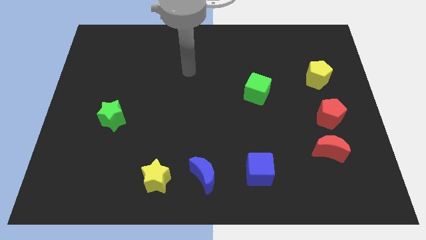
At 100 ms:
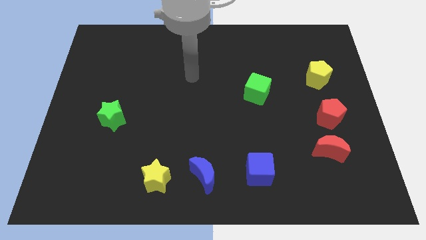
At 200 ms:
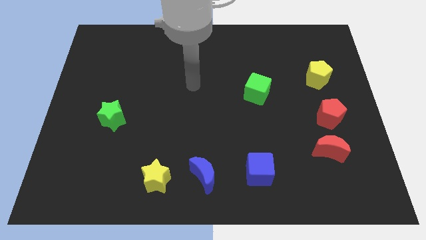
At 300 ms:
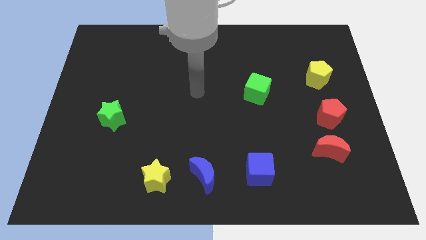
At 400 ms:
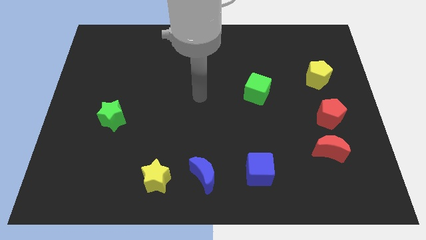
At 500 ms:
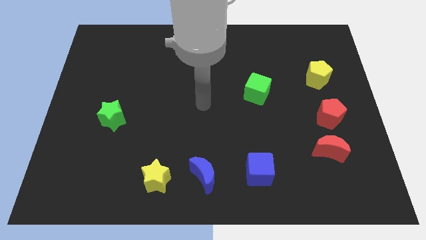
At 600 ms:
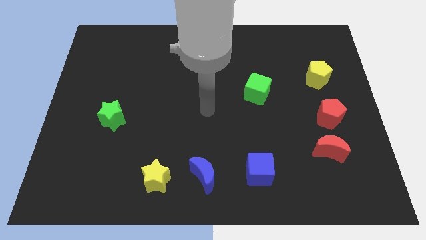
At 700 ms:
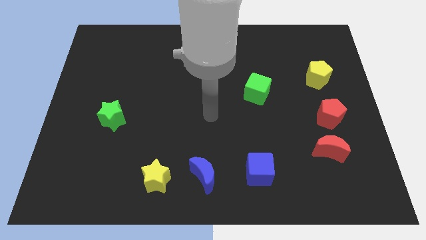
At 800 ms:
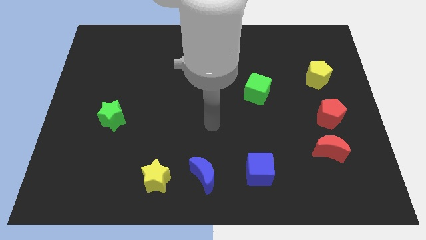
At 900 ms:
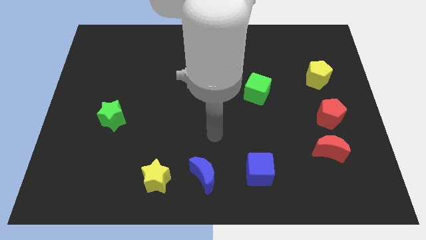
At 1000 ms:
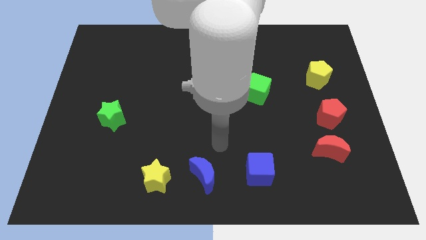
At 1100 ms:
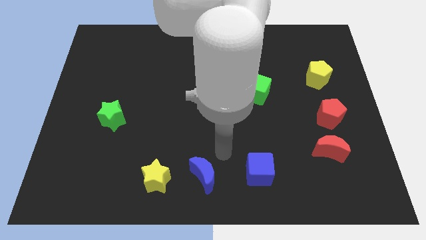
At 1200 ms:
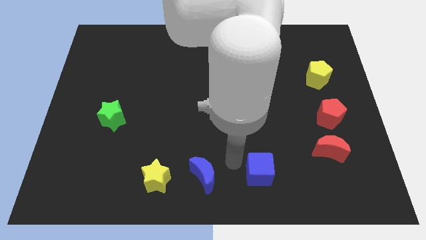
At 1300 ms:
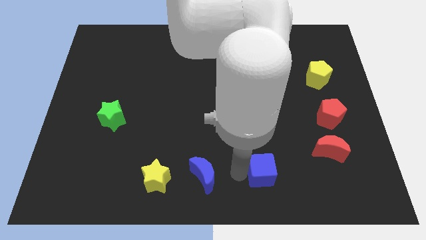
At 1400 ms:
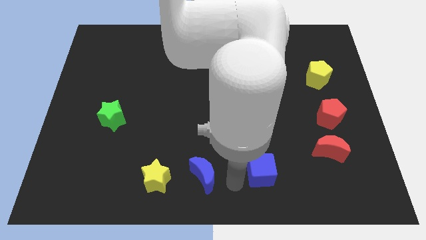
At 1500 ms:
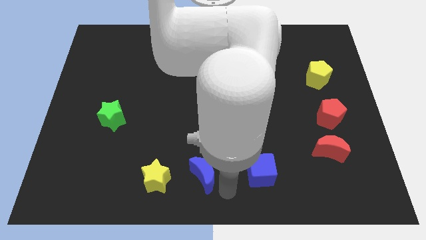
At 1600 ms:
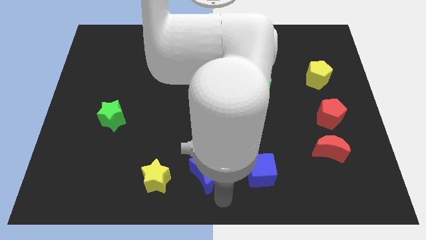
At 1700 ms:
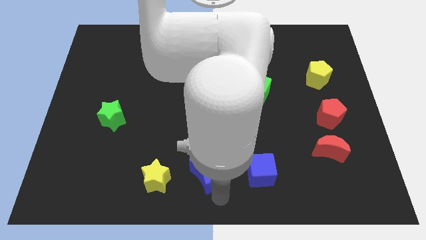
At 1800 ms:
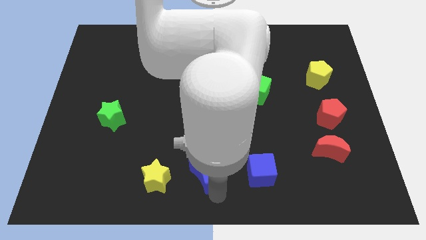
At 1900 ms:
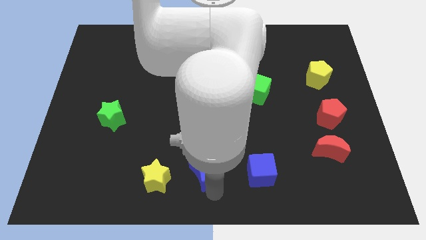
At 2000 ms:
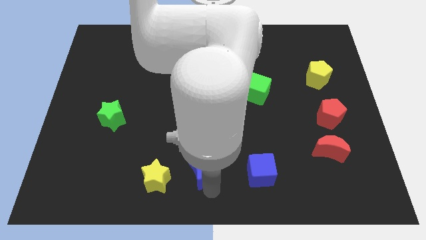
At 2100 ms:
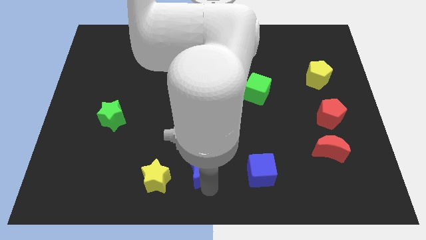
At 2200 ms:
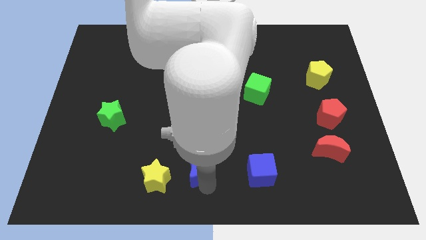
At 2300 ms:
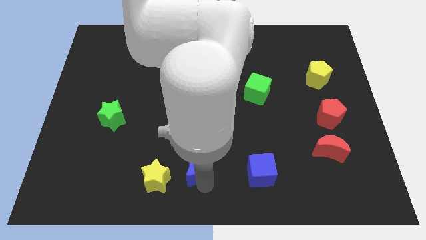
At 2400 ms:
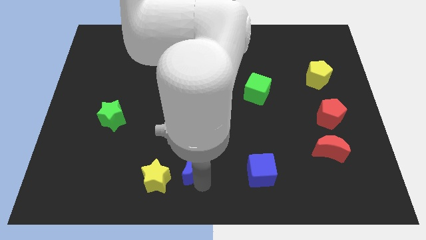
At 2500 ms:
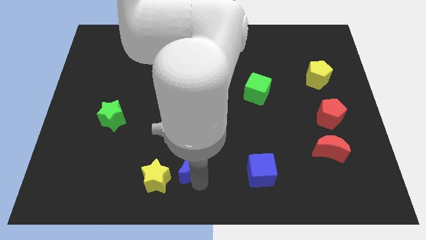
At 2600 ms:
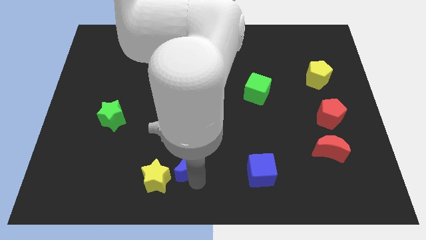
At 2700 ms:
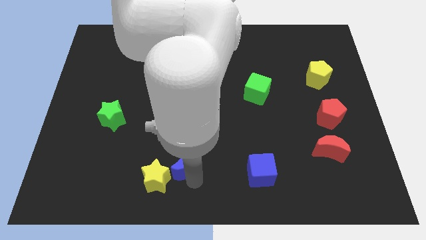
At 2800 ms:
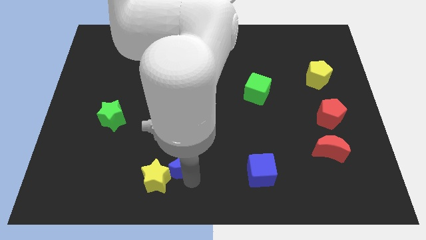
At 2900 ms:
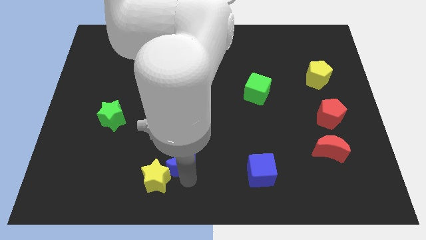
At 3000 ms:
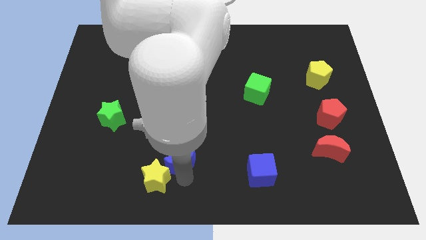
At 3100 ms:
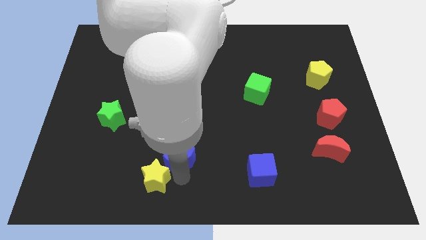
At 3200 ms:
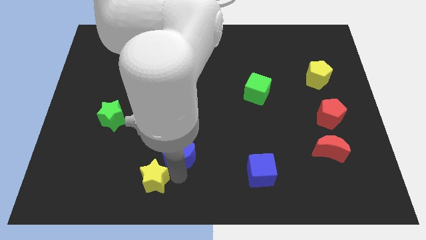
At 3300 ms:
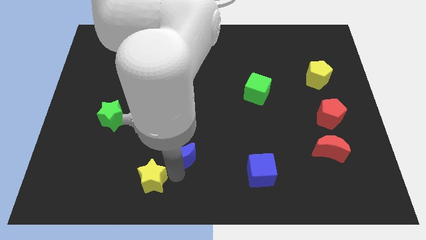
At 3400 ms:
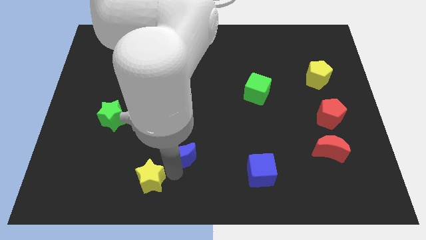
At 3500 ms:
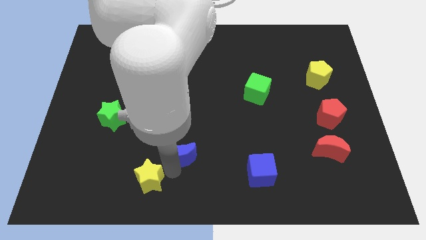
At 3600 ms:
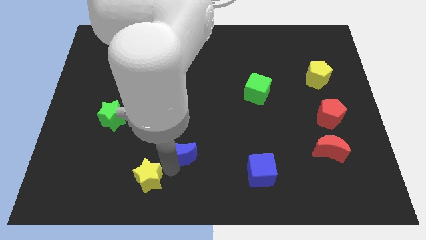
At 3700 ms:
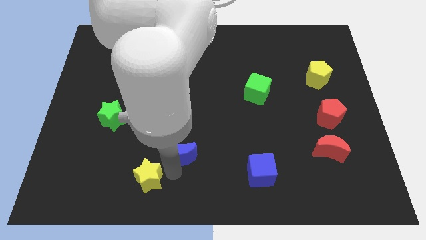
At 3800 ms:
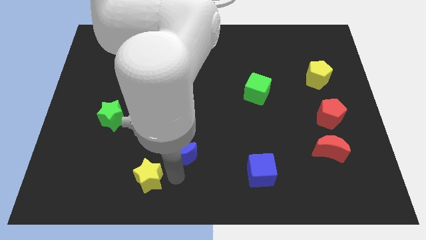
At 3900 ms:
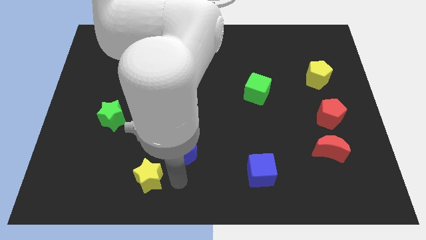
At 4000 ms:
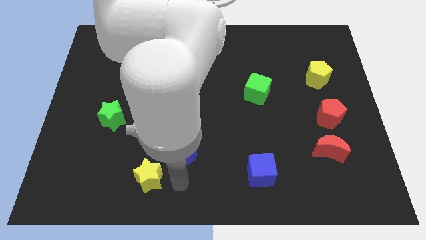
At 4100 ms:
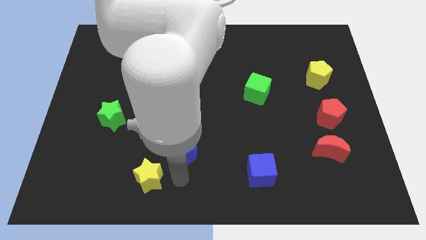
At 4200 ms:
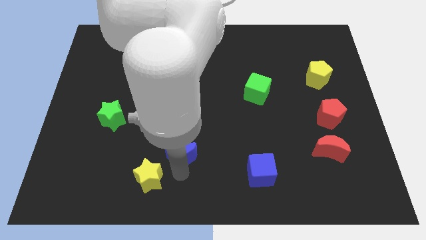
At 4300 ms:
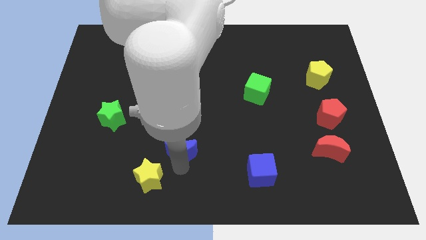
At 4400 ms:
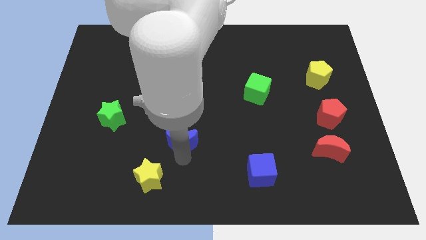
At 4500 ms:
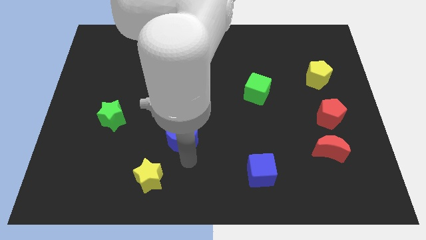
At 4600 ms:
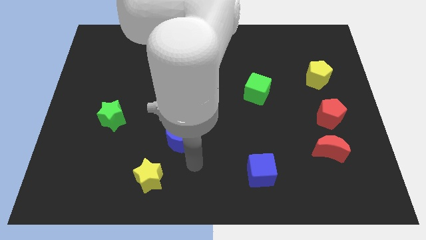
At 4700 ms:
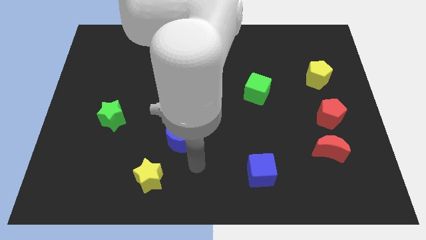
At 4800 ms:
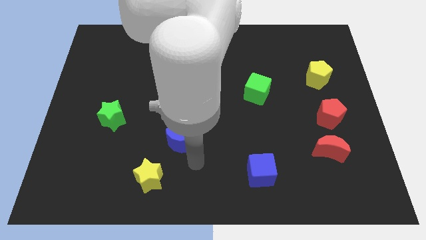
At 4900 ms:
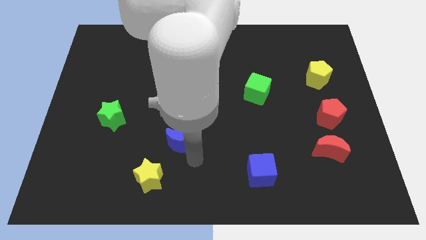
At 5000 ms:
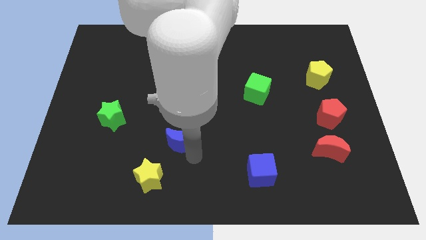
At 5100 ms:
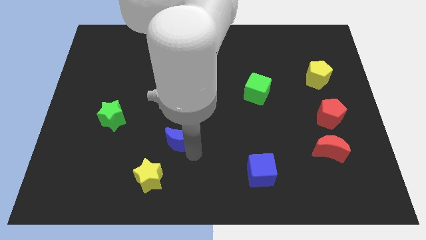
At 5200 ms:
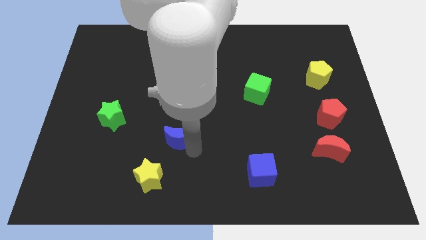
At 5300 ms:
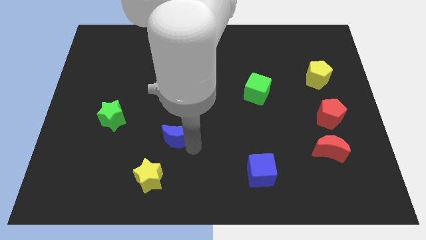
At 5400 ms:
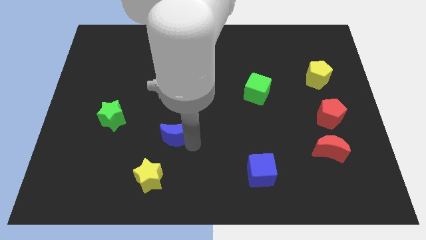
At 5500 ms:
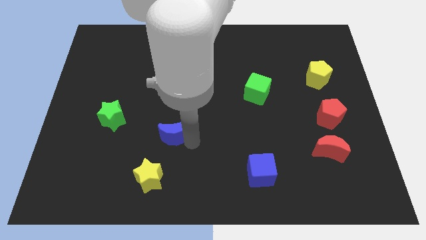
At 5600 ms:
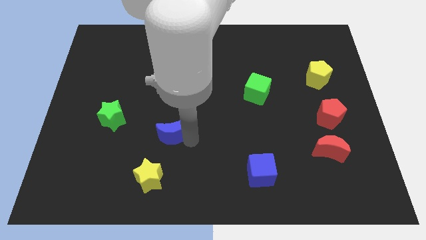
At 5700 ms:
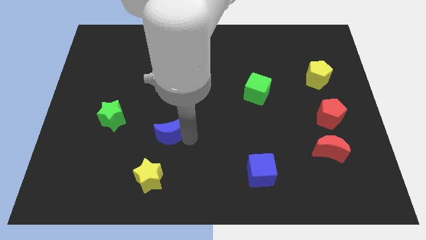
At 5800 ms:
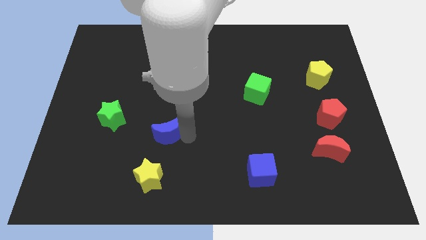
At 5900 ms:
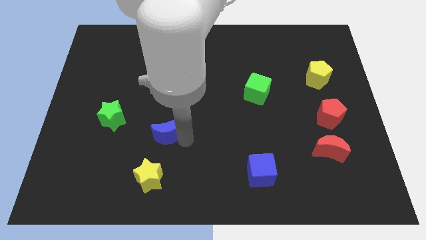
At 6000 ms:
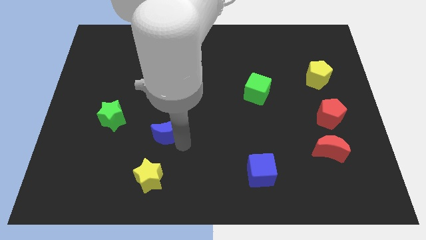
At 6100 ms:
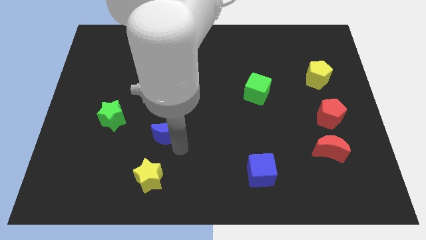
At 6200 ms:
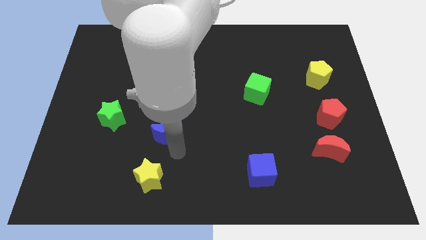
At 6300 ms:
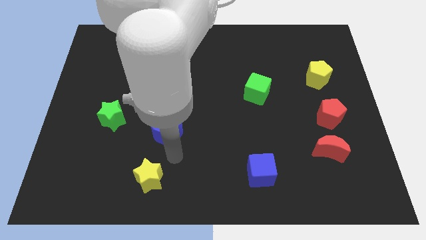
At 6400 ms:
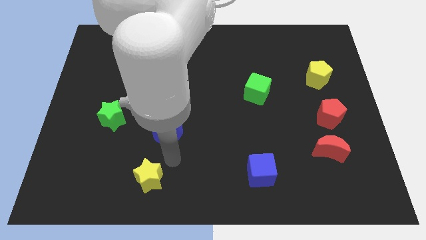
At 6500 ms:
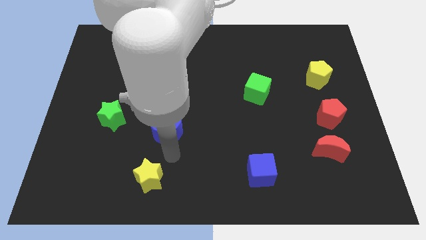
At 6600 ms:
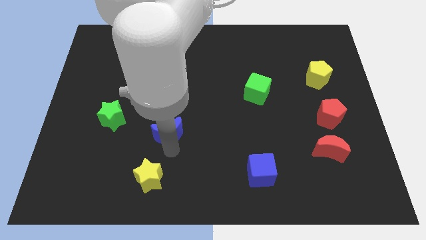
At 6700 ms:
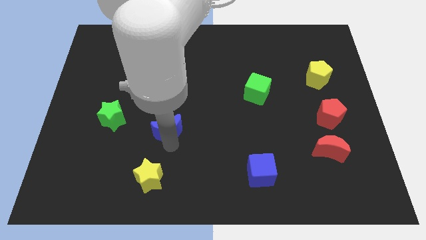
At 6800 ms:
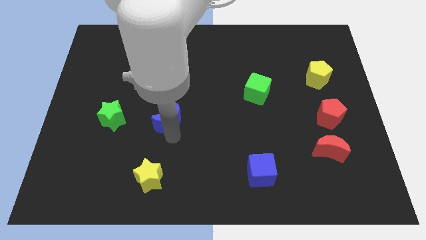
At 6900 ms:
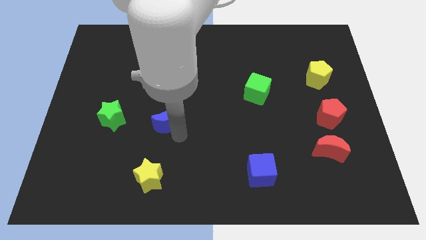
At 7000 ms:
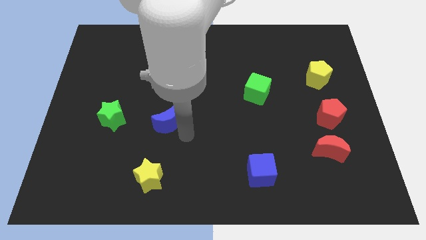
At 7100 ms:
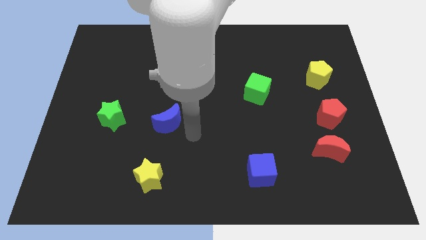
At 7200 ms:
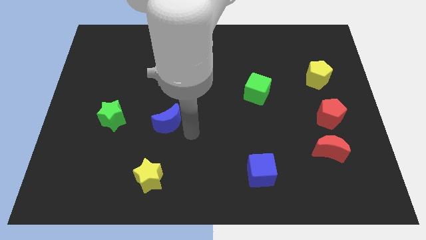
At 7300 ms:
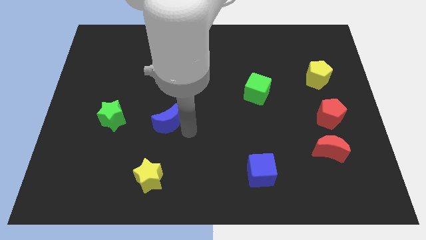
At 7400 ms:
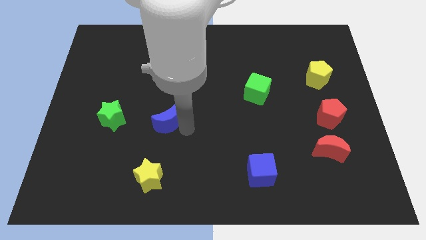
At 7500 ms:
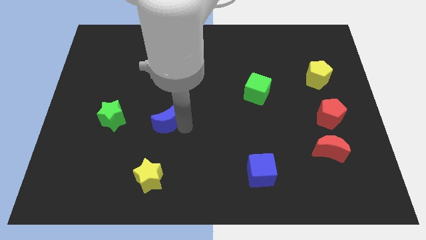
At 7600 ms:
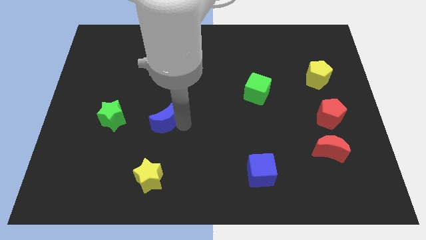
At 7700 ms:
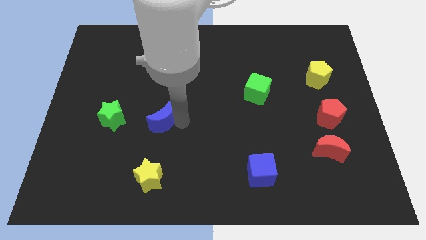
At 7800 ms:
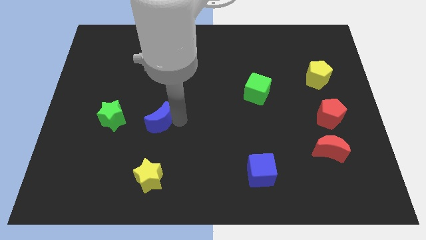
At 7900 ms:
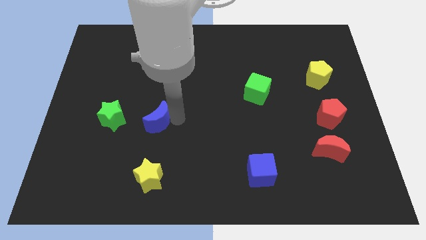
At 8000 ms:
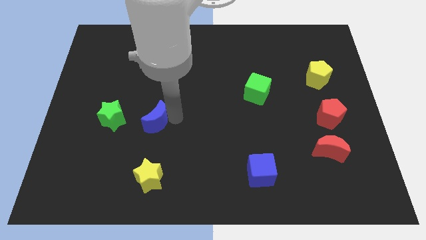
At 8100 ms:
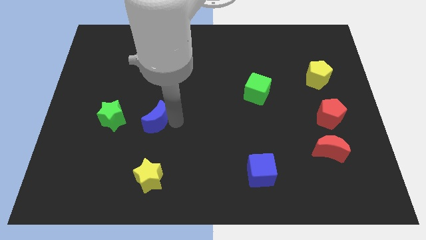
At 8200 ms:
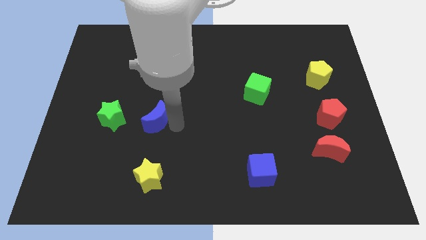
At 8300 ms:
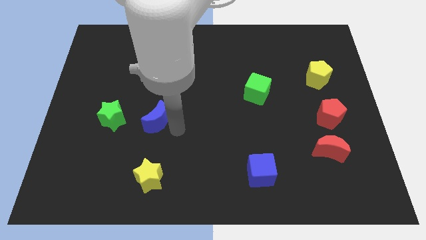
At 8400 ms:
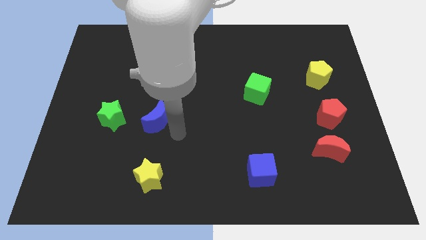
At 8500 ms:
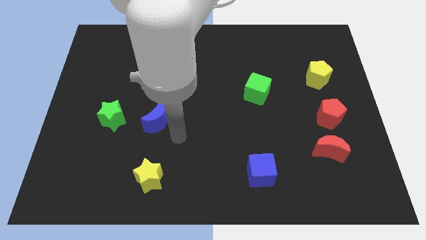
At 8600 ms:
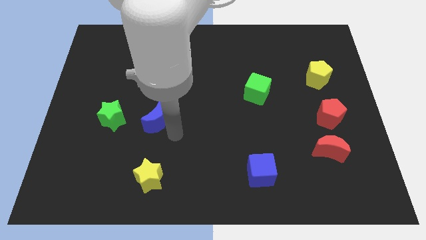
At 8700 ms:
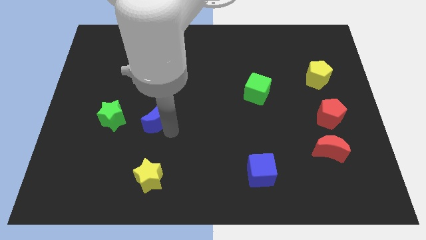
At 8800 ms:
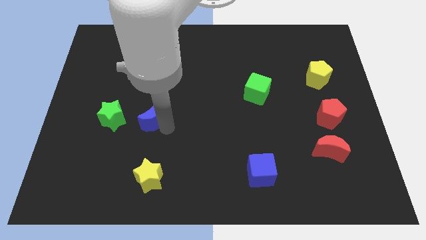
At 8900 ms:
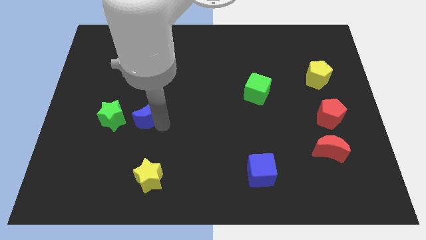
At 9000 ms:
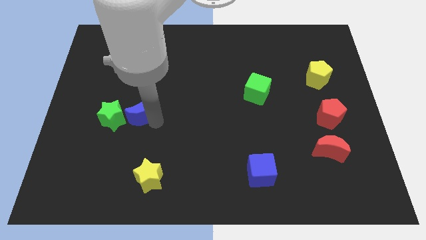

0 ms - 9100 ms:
move the blue moon up and then to the left
